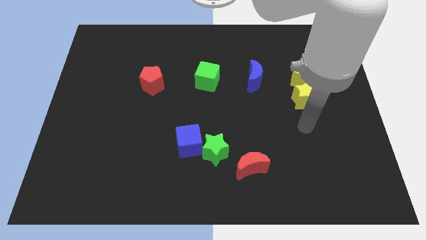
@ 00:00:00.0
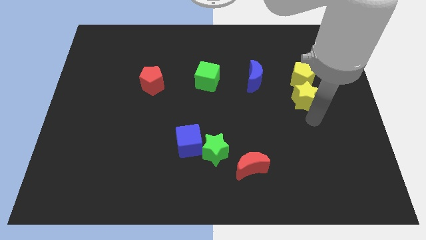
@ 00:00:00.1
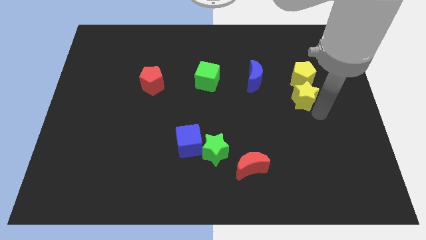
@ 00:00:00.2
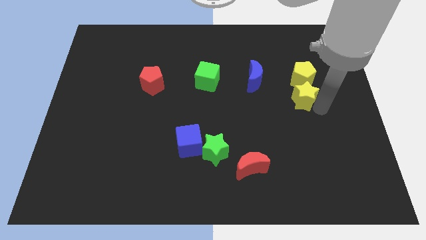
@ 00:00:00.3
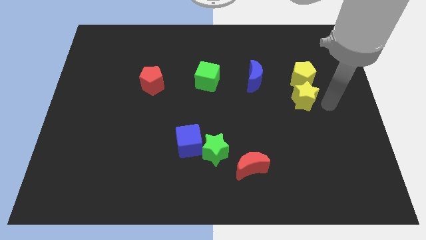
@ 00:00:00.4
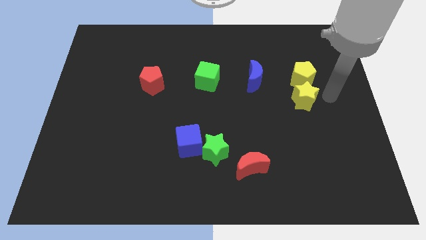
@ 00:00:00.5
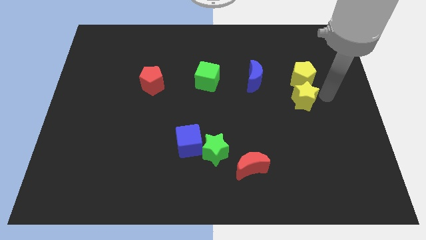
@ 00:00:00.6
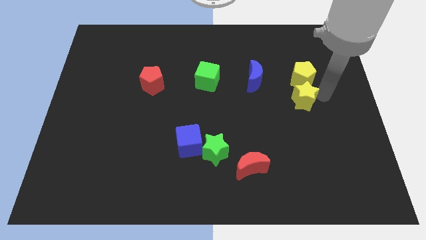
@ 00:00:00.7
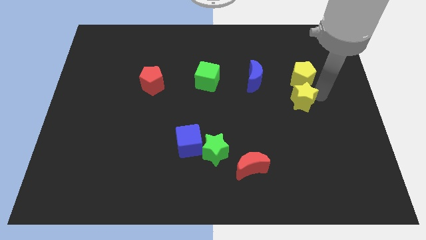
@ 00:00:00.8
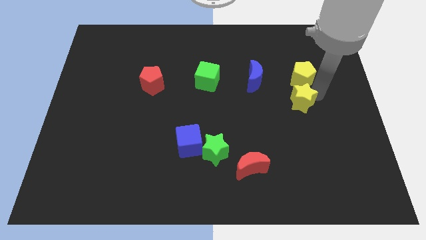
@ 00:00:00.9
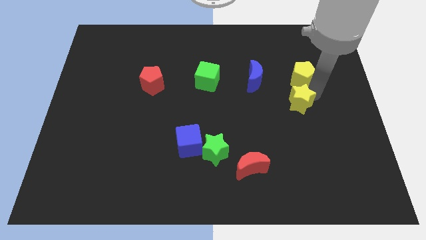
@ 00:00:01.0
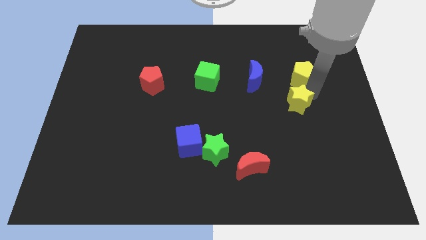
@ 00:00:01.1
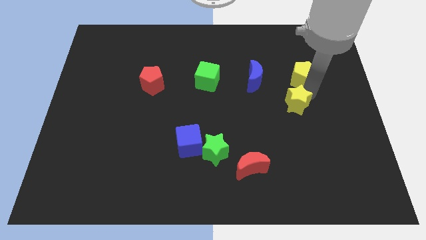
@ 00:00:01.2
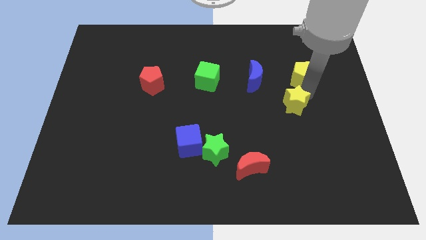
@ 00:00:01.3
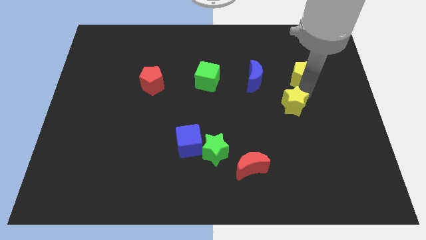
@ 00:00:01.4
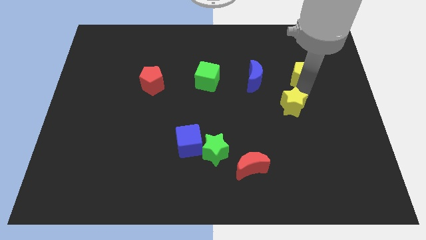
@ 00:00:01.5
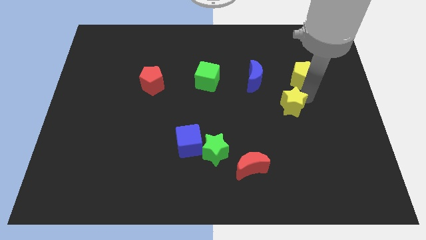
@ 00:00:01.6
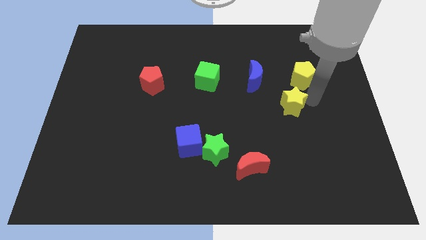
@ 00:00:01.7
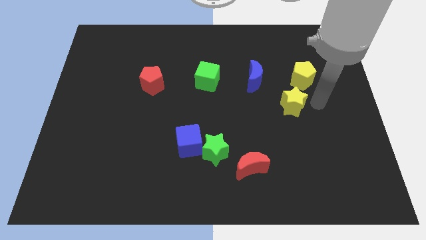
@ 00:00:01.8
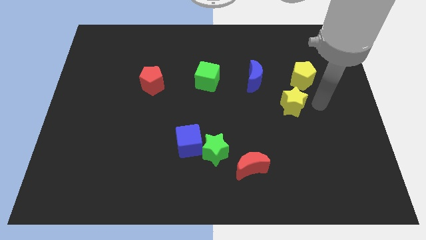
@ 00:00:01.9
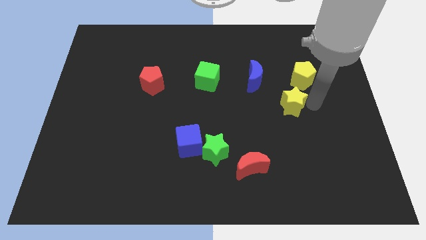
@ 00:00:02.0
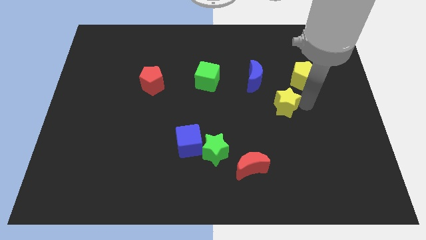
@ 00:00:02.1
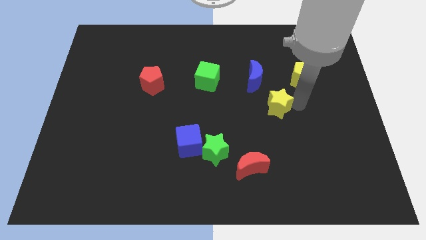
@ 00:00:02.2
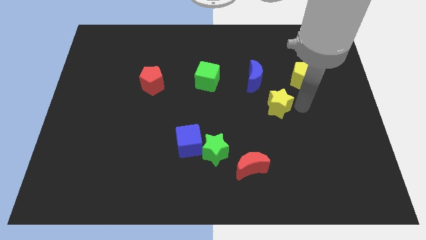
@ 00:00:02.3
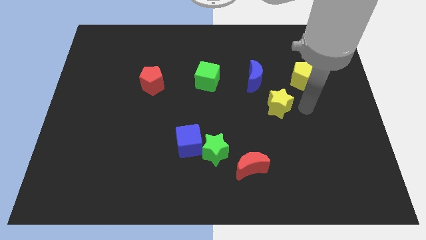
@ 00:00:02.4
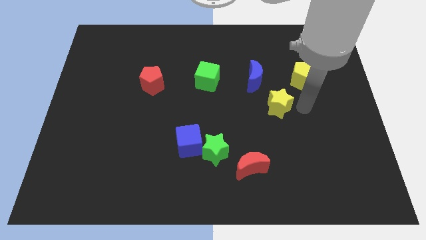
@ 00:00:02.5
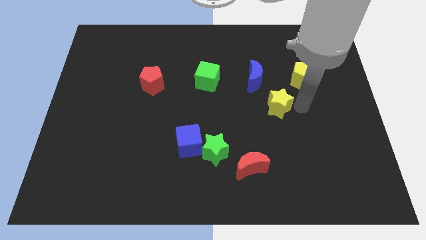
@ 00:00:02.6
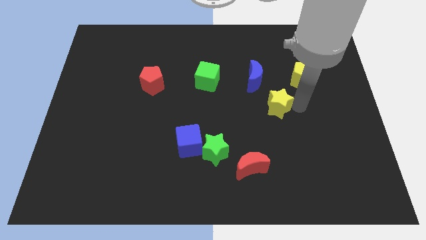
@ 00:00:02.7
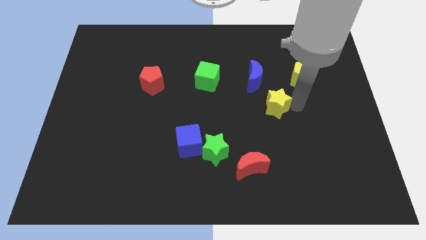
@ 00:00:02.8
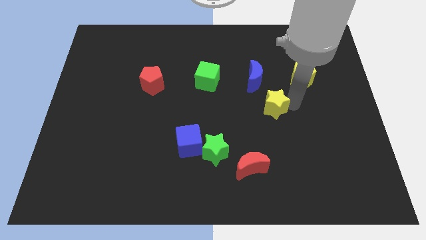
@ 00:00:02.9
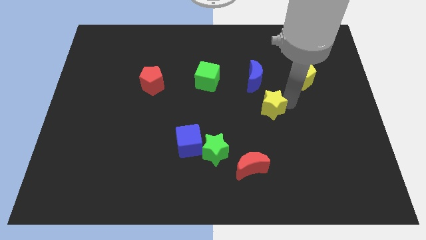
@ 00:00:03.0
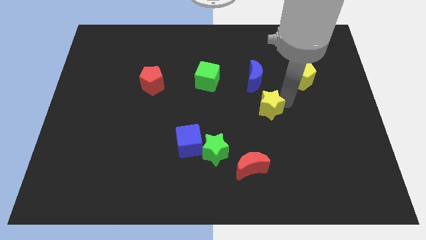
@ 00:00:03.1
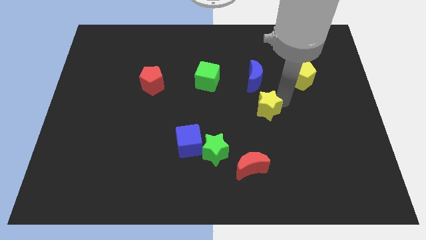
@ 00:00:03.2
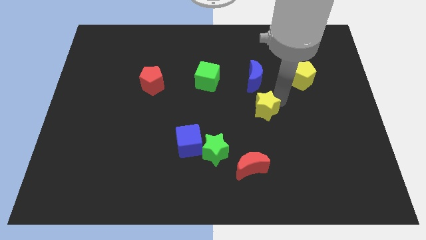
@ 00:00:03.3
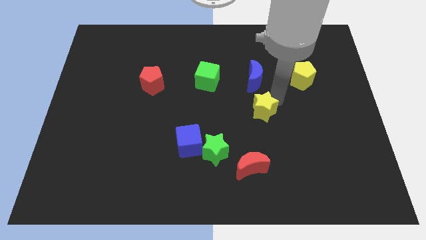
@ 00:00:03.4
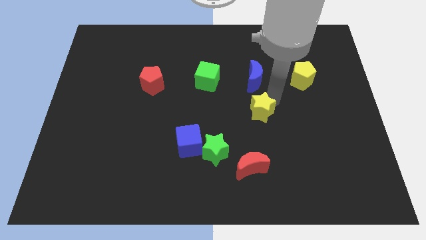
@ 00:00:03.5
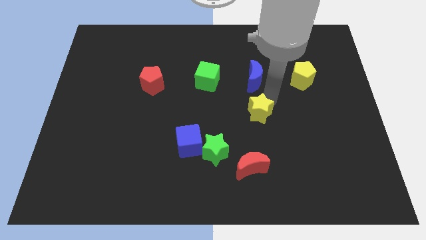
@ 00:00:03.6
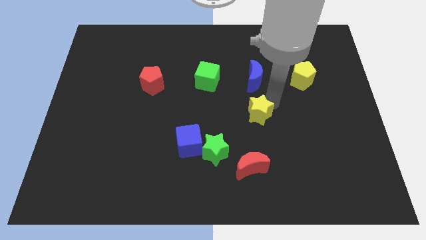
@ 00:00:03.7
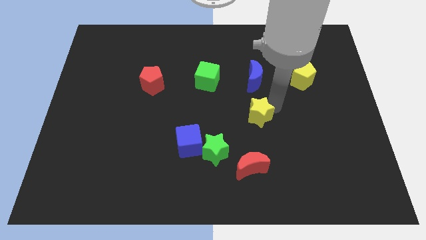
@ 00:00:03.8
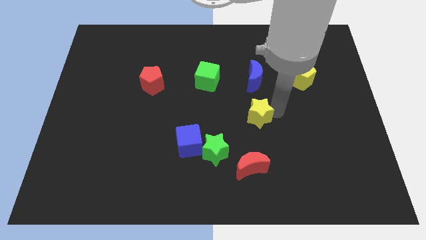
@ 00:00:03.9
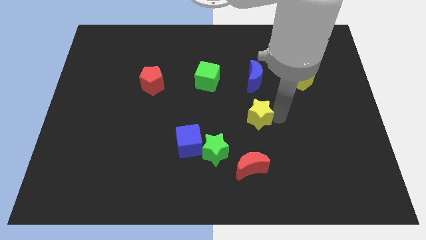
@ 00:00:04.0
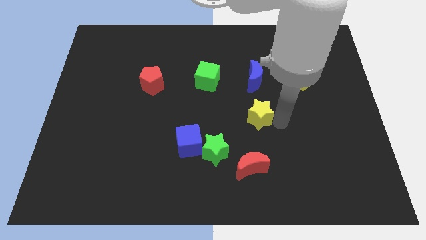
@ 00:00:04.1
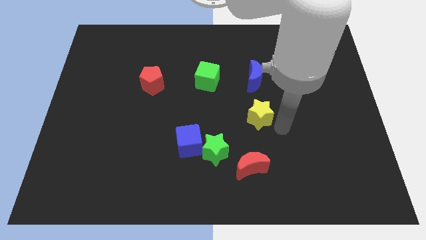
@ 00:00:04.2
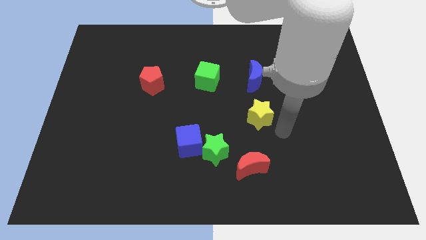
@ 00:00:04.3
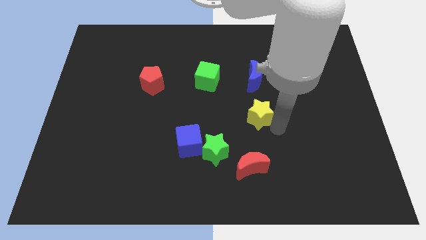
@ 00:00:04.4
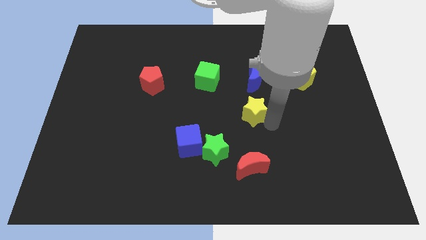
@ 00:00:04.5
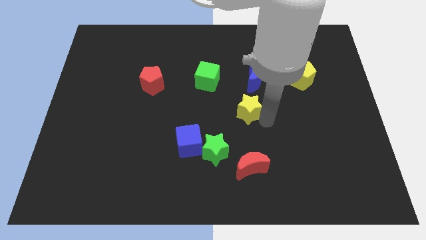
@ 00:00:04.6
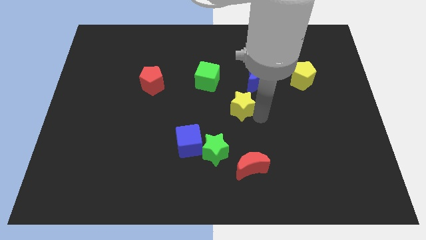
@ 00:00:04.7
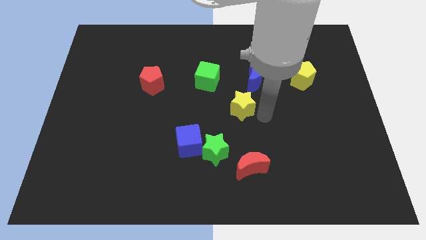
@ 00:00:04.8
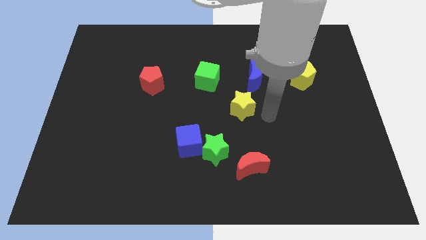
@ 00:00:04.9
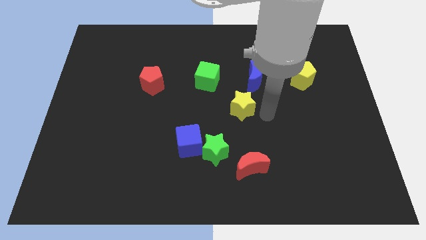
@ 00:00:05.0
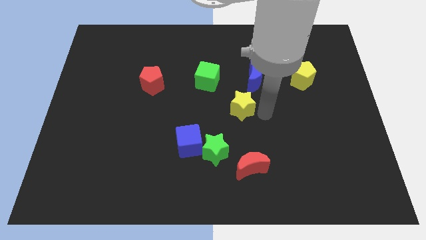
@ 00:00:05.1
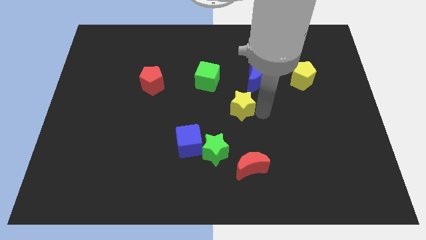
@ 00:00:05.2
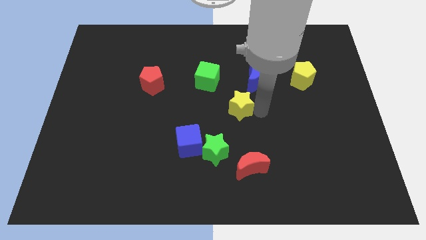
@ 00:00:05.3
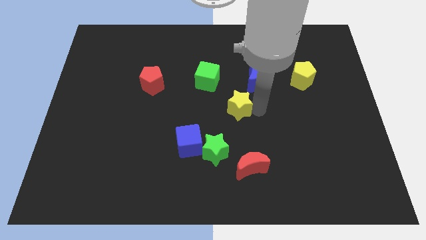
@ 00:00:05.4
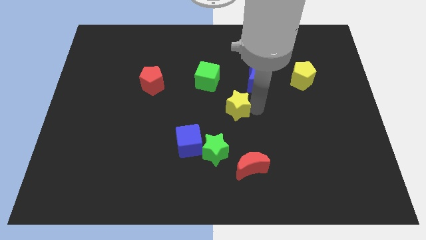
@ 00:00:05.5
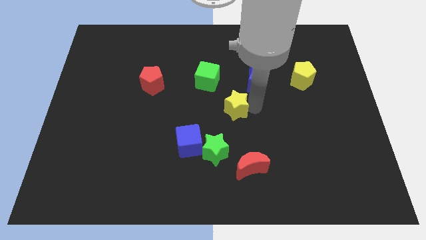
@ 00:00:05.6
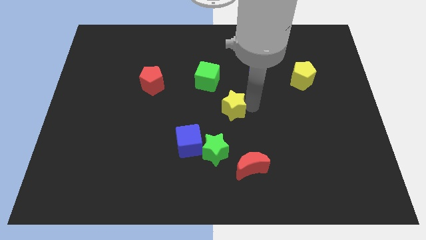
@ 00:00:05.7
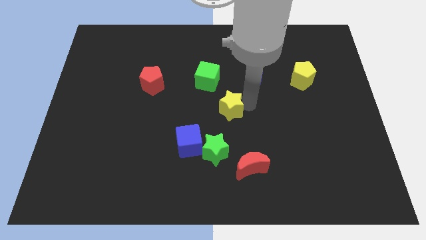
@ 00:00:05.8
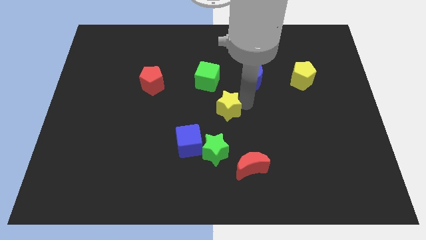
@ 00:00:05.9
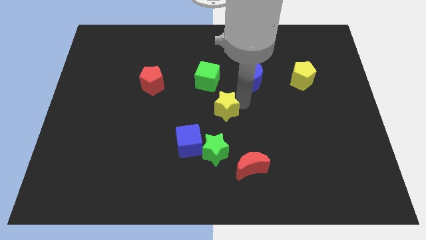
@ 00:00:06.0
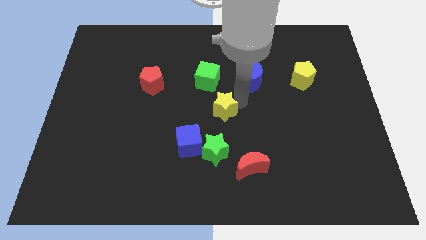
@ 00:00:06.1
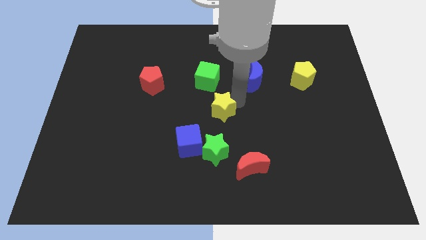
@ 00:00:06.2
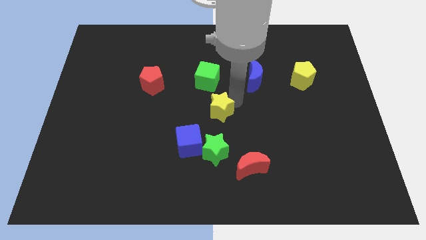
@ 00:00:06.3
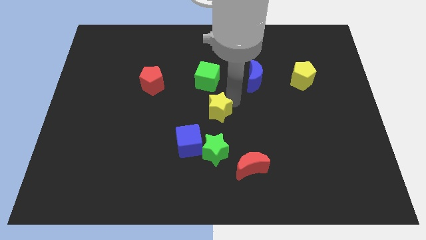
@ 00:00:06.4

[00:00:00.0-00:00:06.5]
push the yellow star to the left

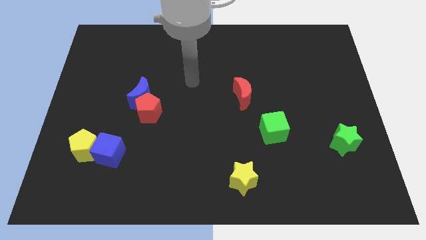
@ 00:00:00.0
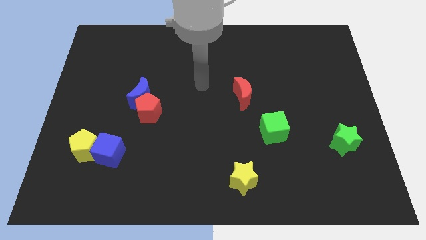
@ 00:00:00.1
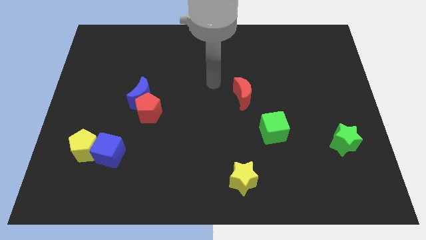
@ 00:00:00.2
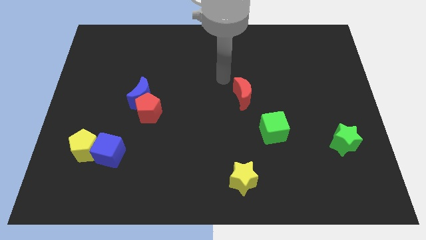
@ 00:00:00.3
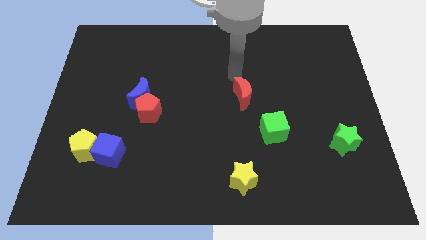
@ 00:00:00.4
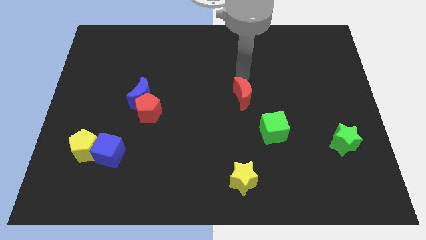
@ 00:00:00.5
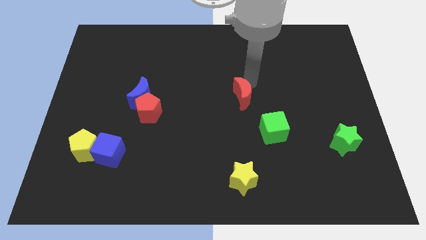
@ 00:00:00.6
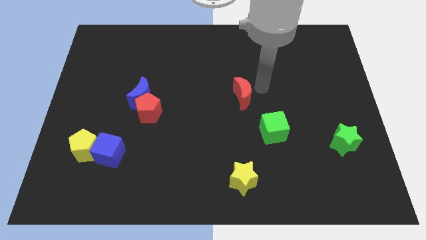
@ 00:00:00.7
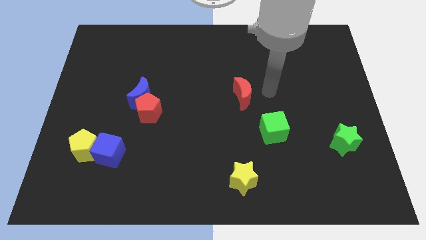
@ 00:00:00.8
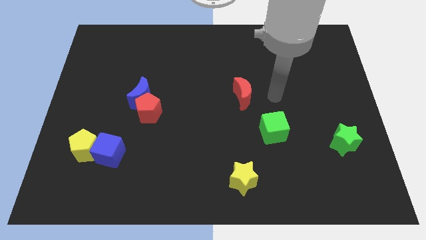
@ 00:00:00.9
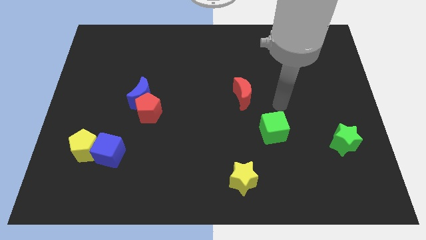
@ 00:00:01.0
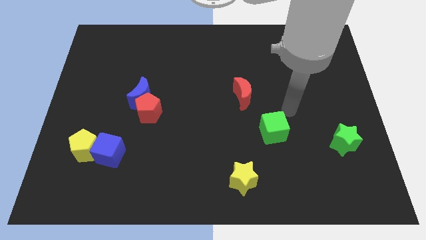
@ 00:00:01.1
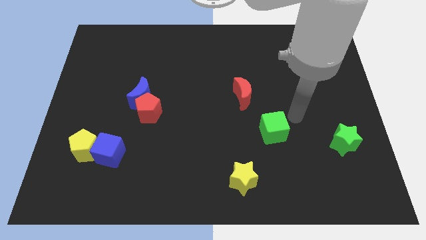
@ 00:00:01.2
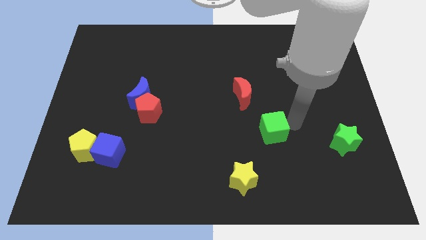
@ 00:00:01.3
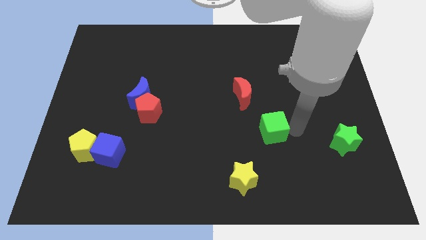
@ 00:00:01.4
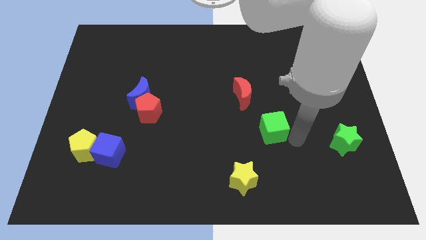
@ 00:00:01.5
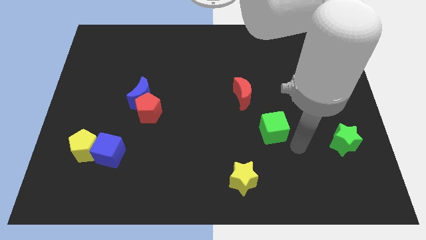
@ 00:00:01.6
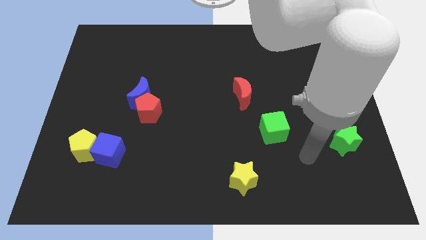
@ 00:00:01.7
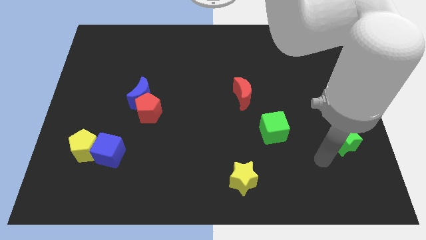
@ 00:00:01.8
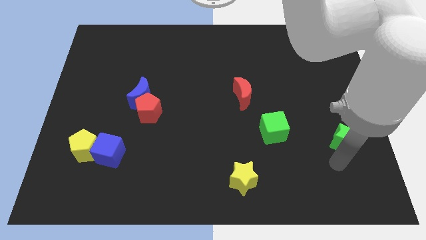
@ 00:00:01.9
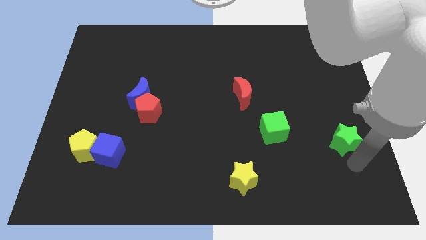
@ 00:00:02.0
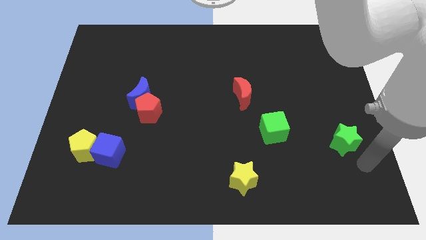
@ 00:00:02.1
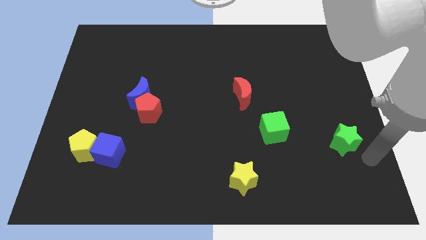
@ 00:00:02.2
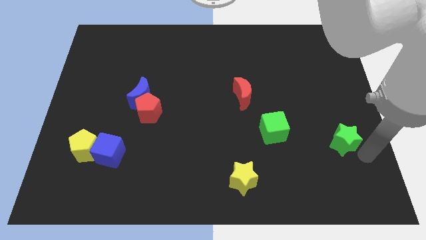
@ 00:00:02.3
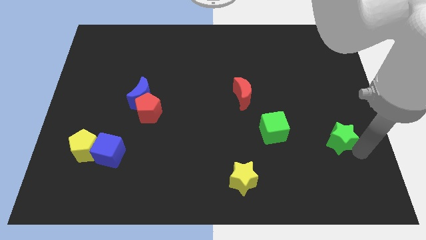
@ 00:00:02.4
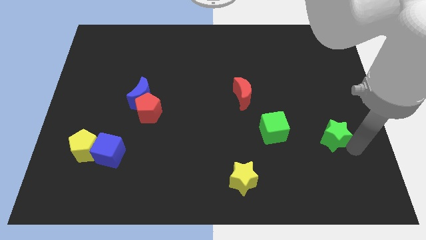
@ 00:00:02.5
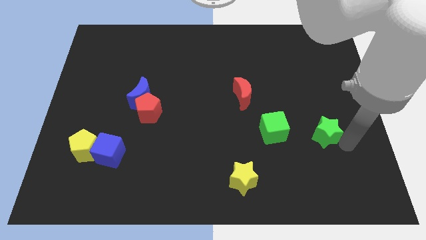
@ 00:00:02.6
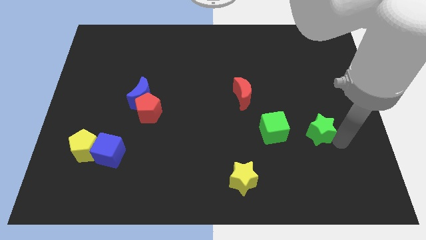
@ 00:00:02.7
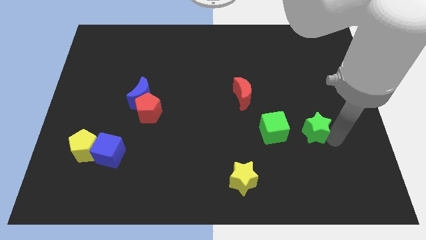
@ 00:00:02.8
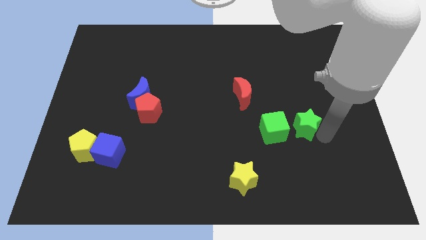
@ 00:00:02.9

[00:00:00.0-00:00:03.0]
slightly slide the green star upwards and then left
